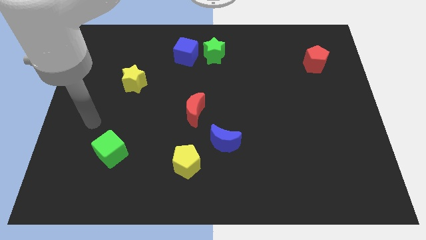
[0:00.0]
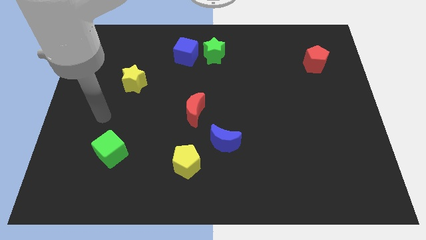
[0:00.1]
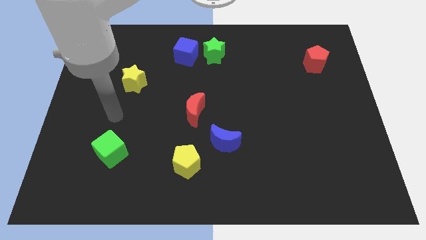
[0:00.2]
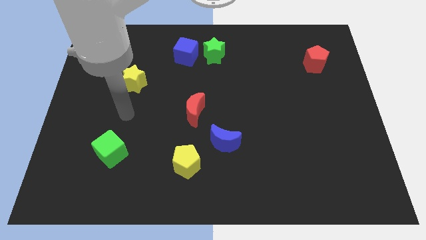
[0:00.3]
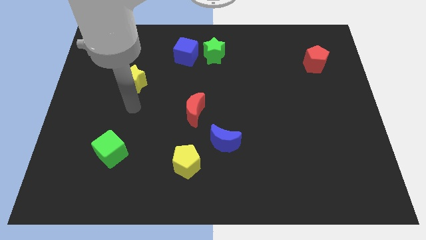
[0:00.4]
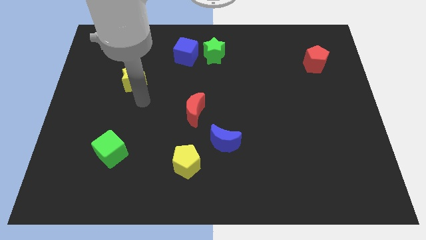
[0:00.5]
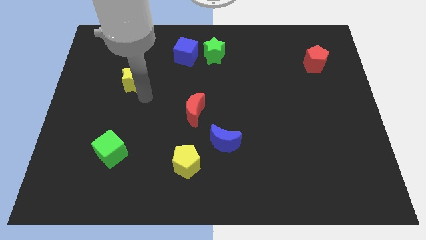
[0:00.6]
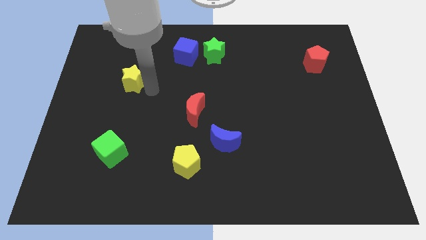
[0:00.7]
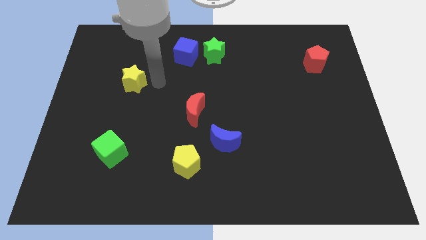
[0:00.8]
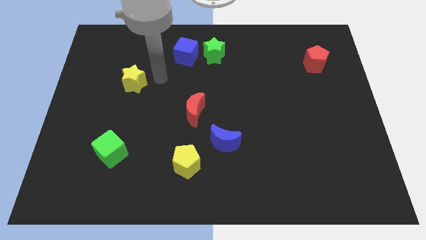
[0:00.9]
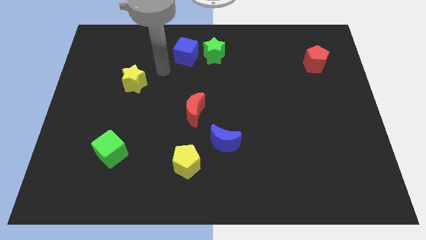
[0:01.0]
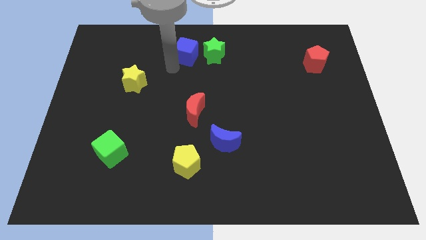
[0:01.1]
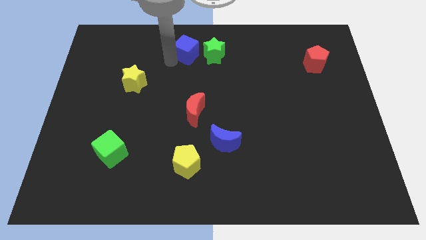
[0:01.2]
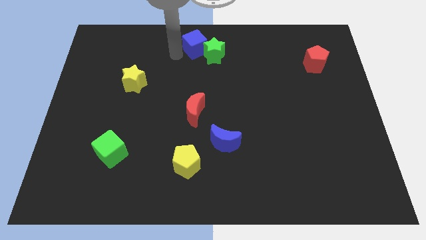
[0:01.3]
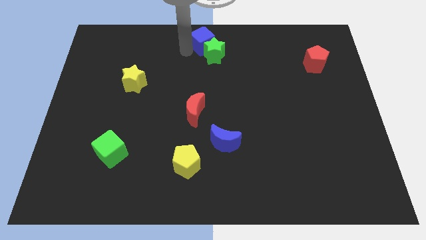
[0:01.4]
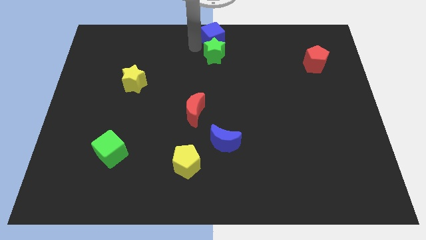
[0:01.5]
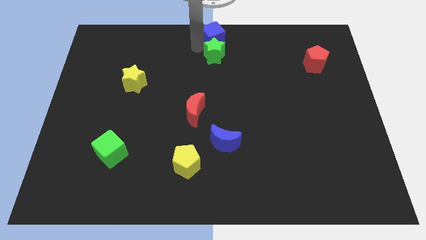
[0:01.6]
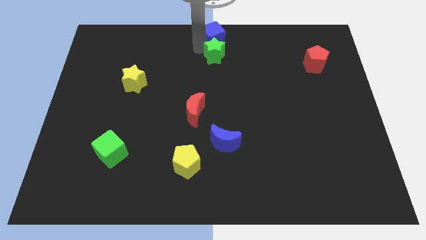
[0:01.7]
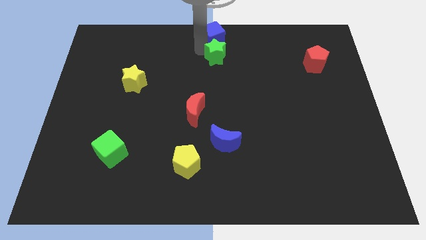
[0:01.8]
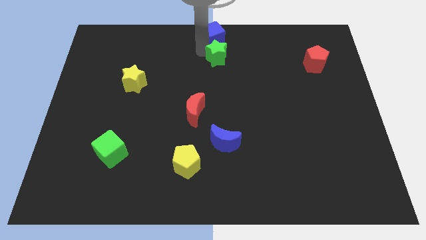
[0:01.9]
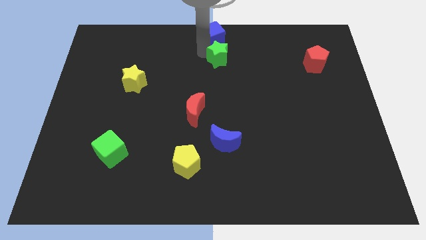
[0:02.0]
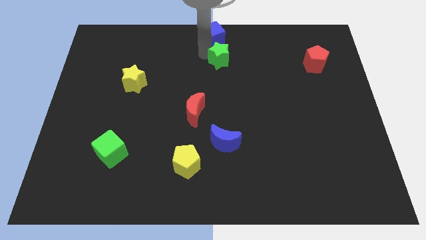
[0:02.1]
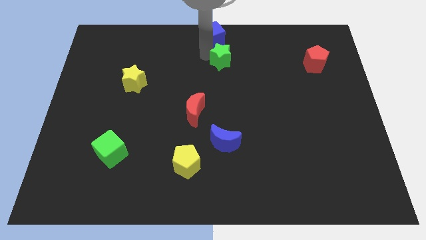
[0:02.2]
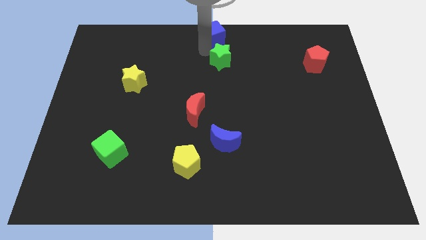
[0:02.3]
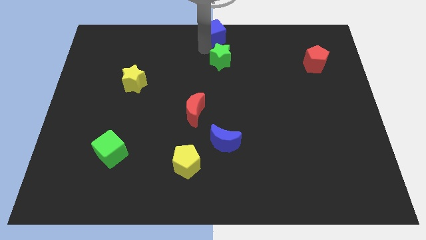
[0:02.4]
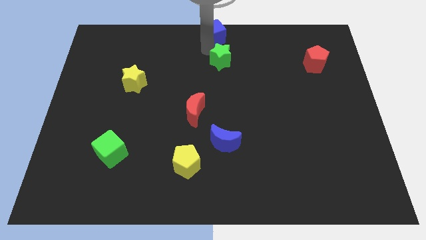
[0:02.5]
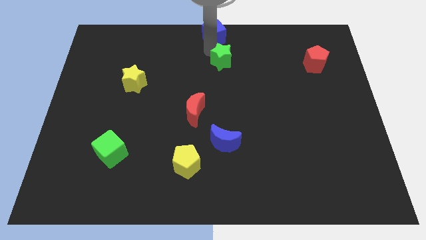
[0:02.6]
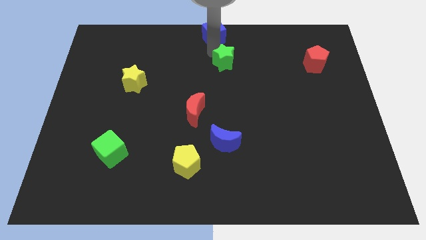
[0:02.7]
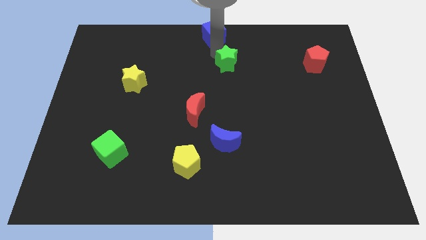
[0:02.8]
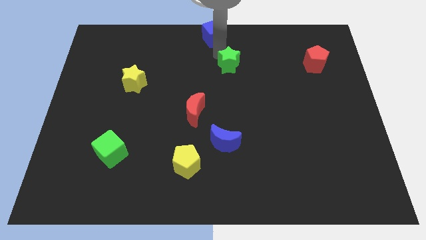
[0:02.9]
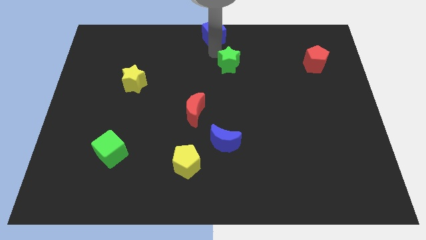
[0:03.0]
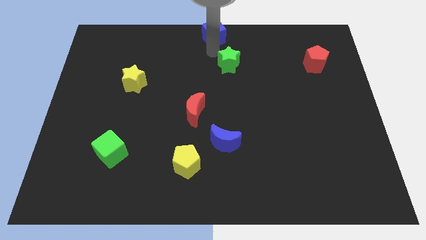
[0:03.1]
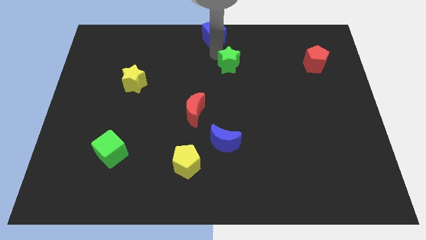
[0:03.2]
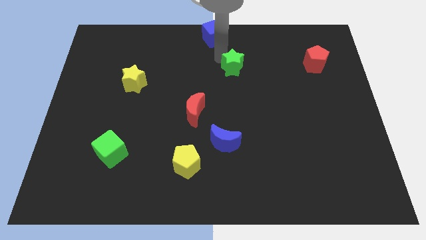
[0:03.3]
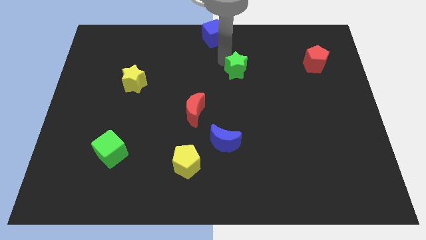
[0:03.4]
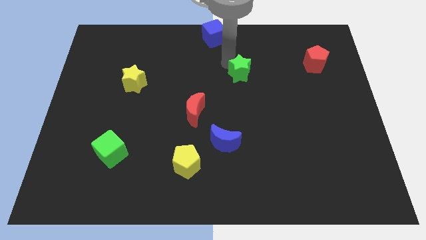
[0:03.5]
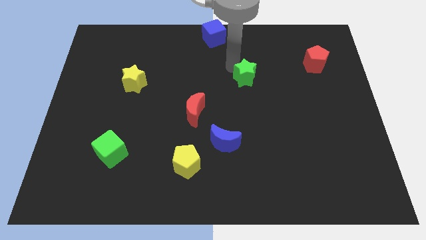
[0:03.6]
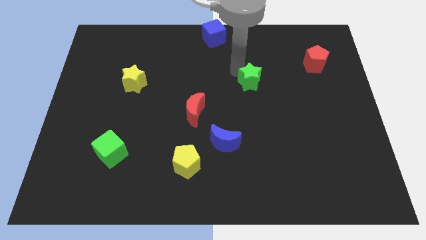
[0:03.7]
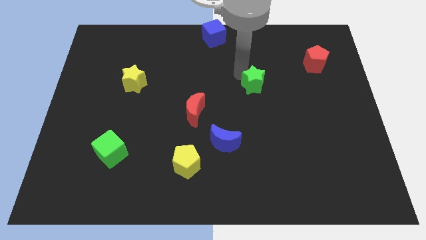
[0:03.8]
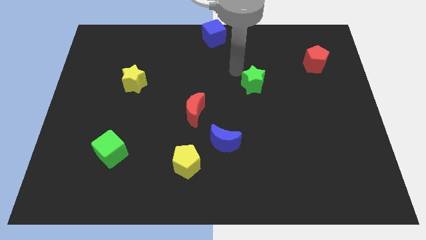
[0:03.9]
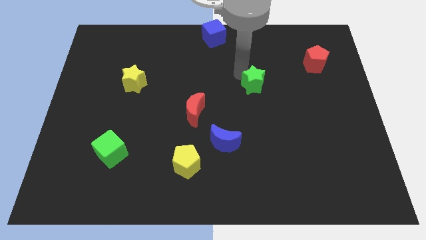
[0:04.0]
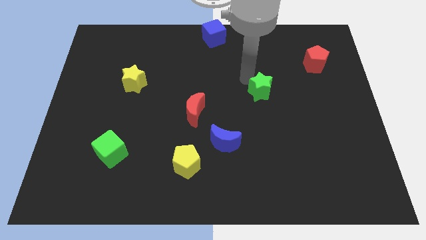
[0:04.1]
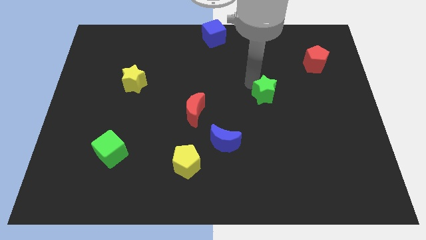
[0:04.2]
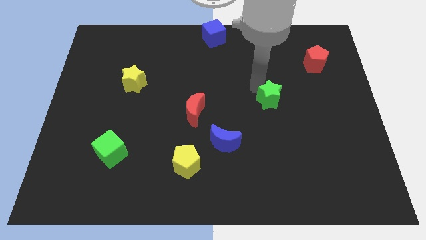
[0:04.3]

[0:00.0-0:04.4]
move the green star downwards and right diagonally

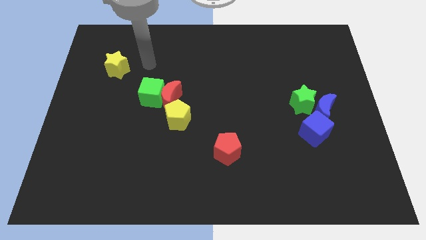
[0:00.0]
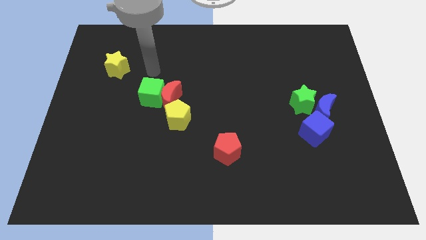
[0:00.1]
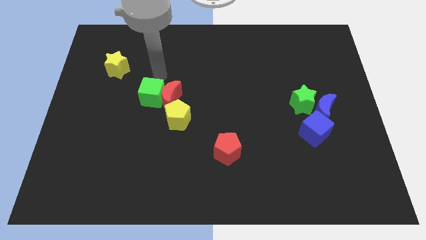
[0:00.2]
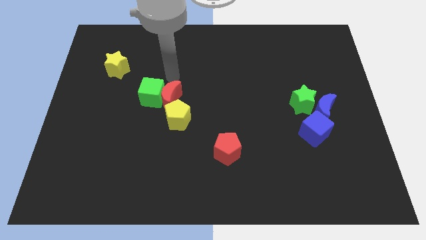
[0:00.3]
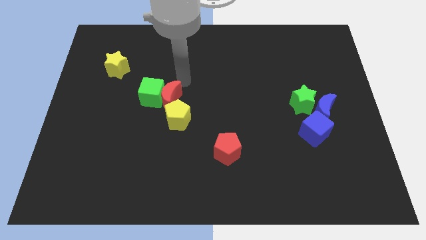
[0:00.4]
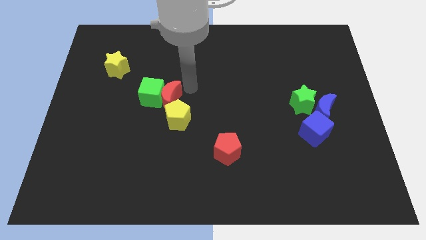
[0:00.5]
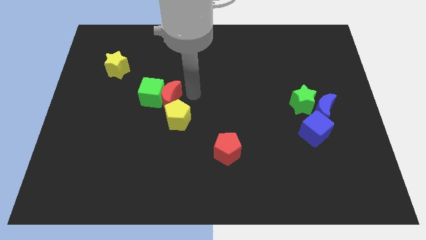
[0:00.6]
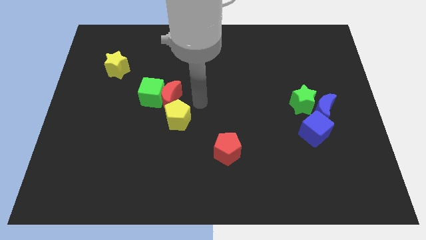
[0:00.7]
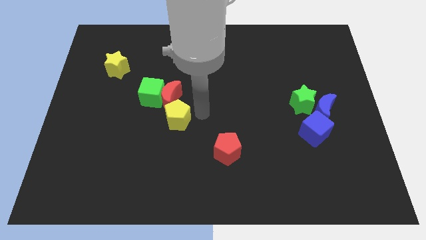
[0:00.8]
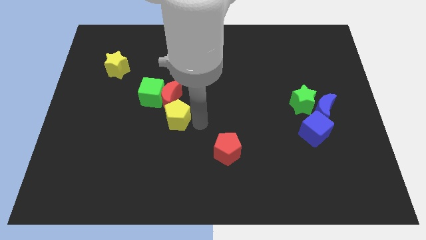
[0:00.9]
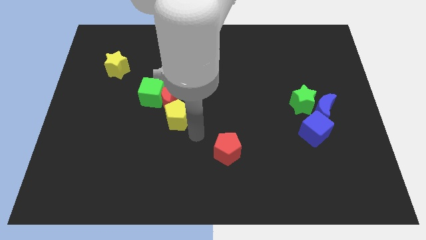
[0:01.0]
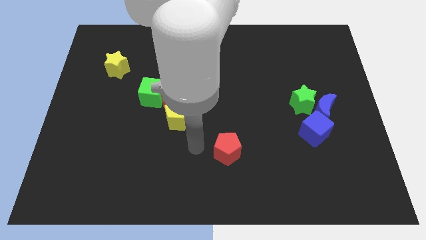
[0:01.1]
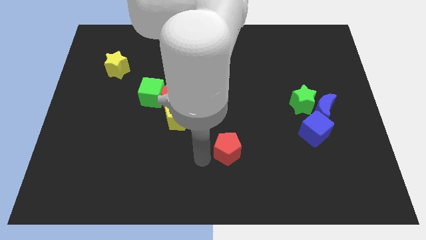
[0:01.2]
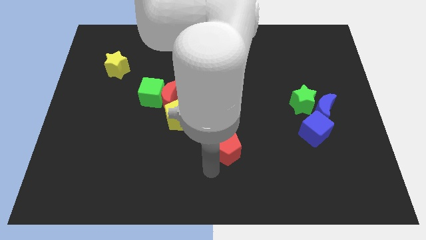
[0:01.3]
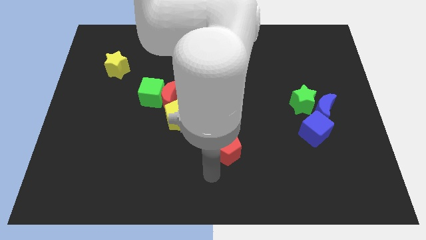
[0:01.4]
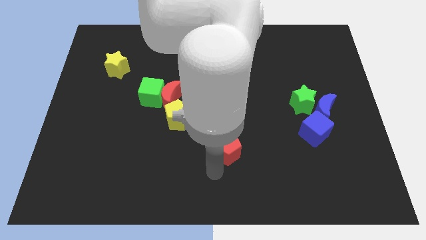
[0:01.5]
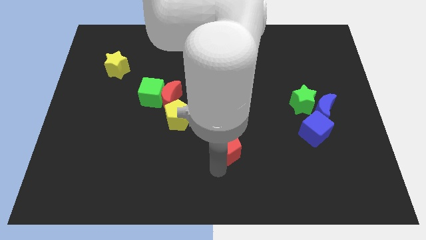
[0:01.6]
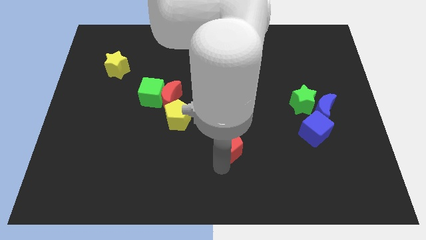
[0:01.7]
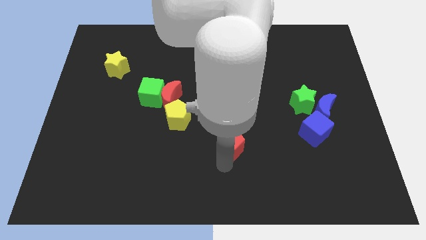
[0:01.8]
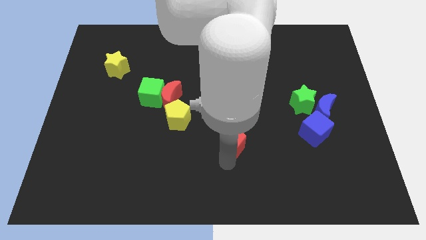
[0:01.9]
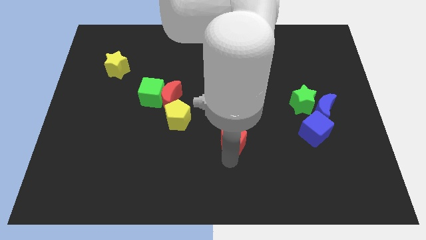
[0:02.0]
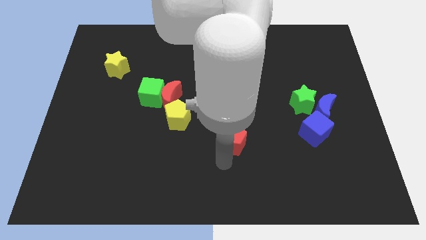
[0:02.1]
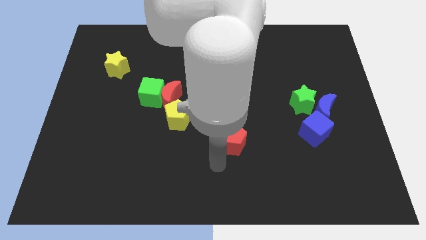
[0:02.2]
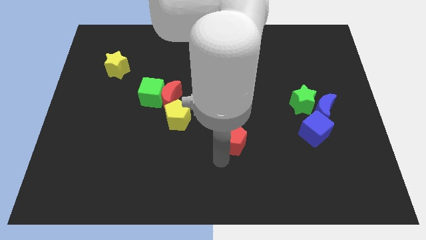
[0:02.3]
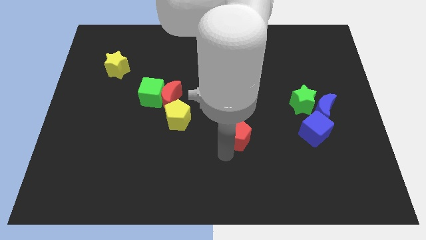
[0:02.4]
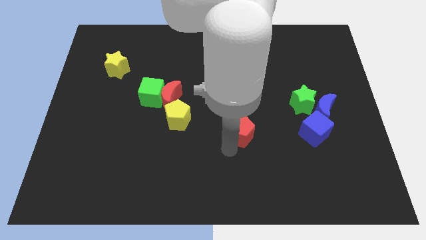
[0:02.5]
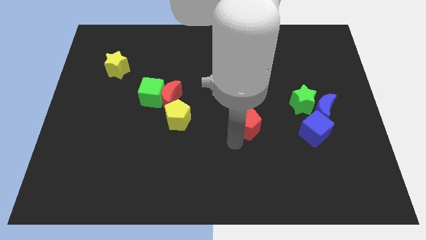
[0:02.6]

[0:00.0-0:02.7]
push the red pentagon slightly diagonally up and to the right

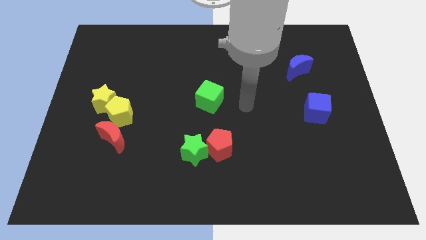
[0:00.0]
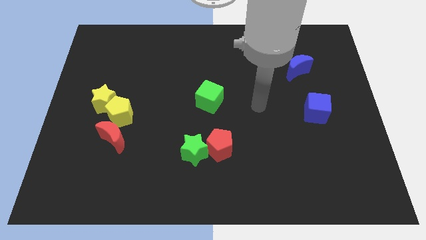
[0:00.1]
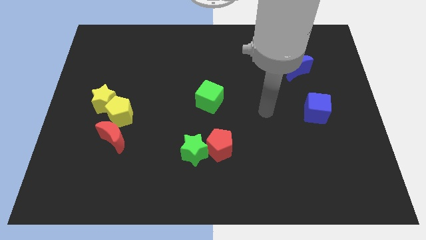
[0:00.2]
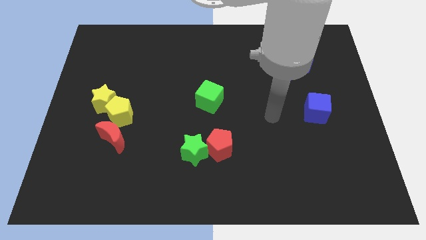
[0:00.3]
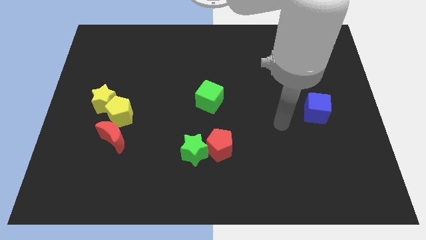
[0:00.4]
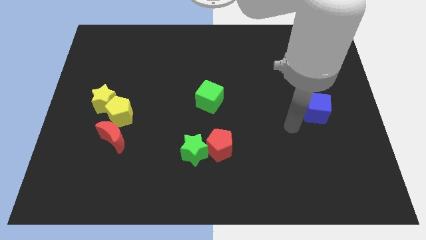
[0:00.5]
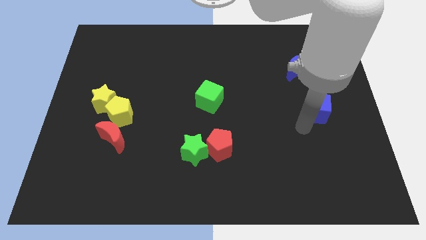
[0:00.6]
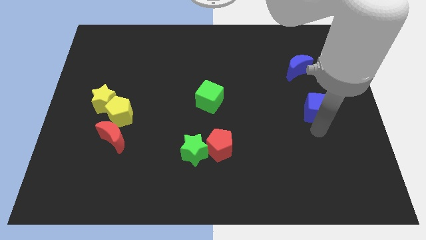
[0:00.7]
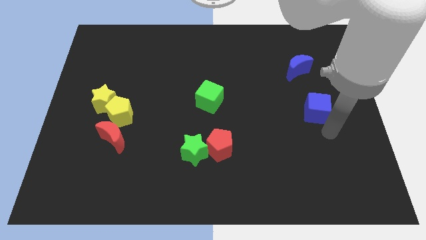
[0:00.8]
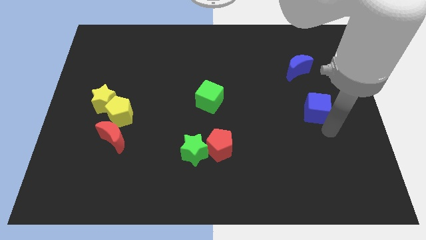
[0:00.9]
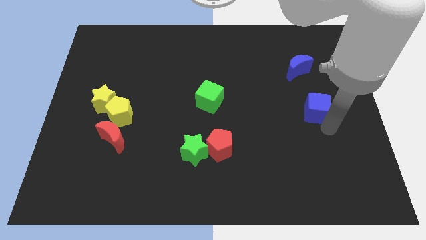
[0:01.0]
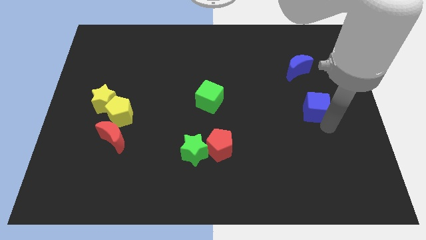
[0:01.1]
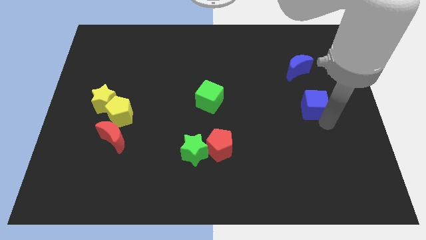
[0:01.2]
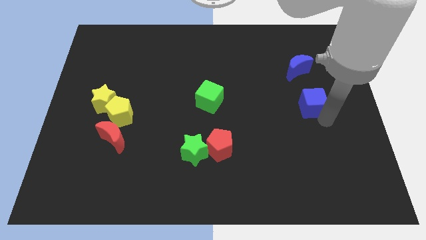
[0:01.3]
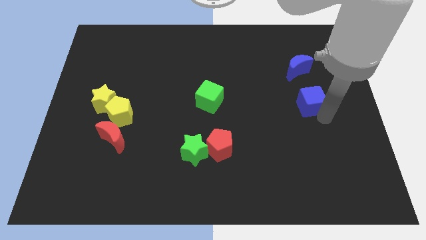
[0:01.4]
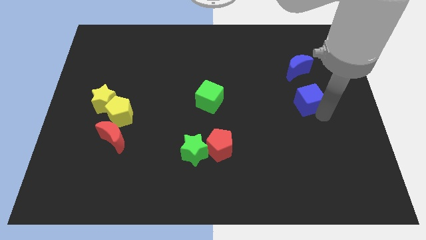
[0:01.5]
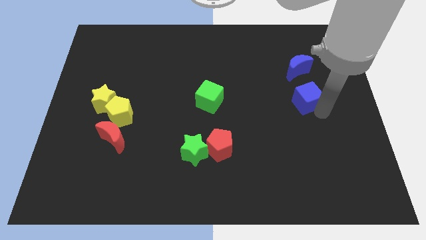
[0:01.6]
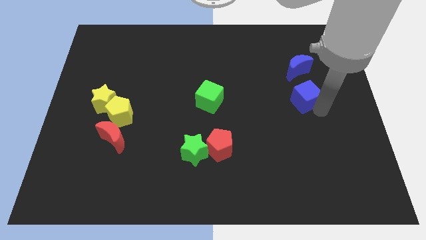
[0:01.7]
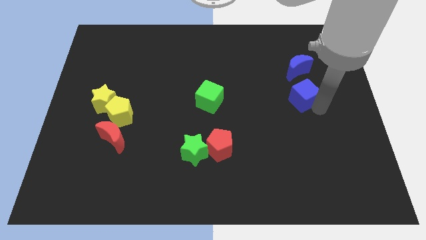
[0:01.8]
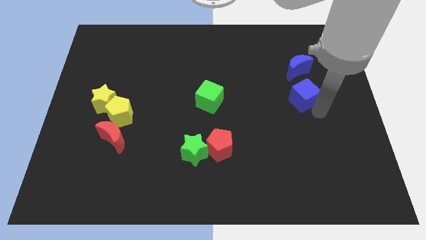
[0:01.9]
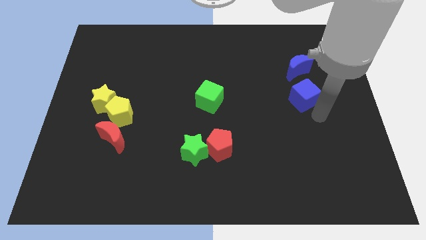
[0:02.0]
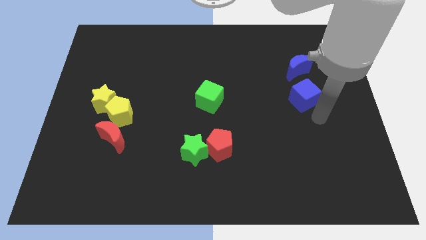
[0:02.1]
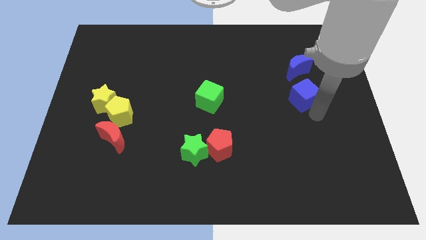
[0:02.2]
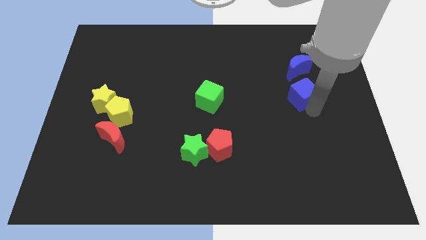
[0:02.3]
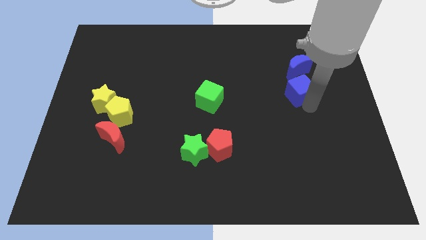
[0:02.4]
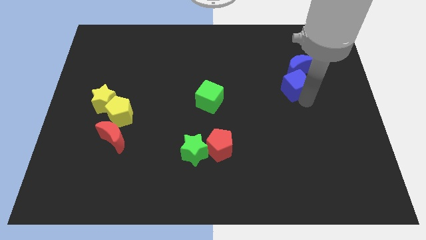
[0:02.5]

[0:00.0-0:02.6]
slide the blue cube up and then to the left slightly
